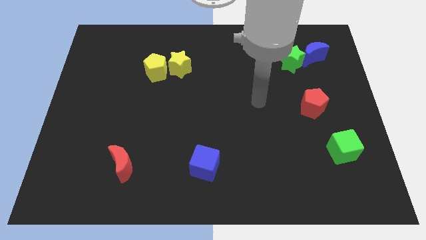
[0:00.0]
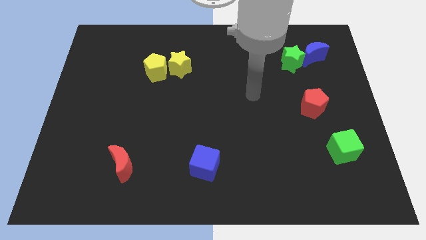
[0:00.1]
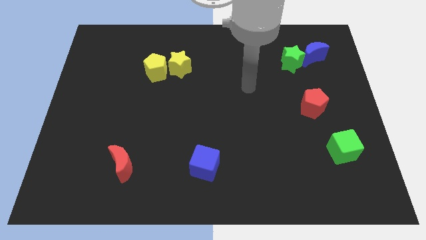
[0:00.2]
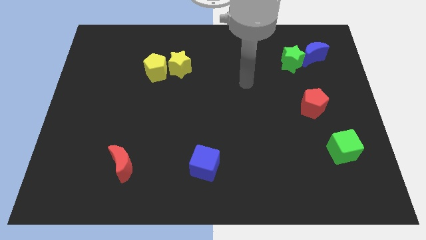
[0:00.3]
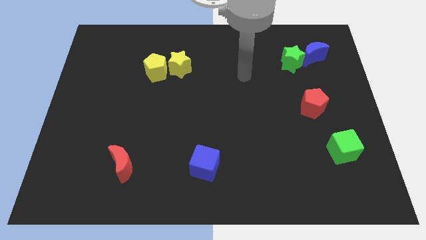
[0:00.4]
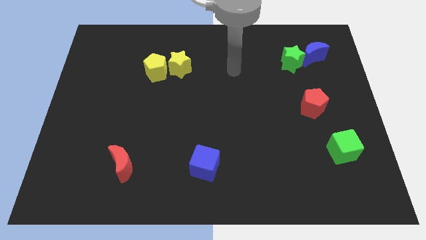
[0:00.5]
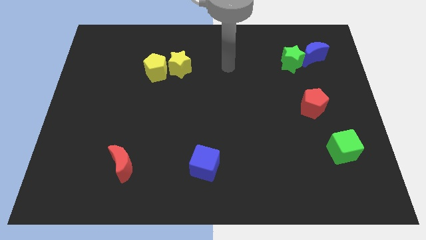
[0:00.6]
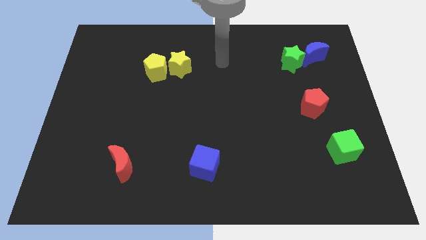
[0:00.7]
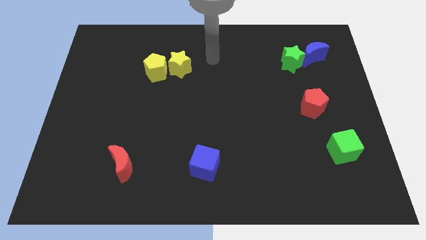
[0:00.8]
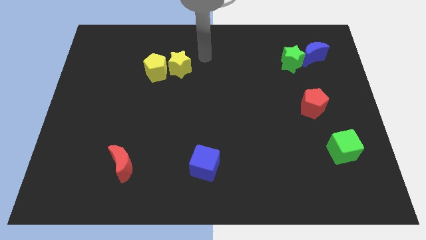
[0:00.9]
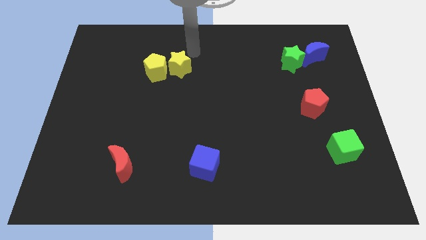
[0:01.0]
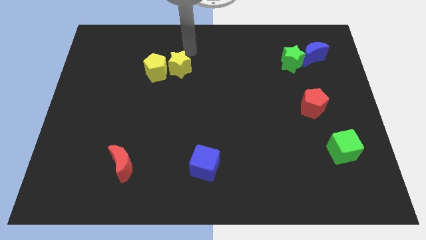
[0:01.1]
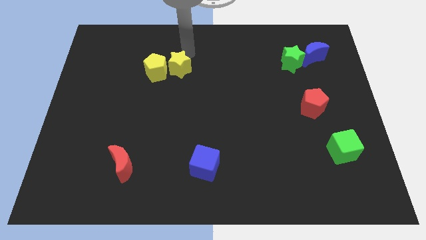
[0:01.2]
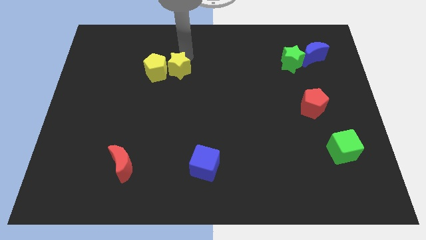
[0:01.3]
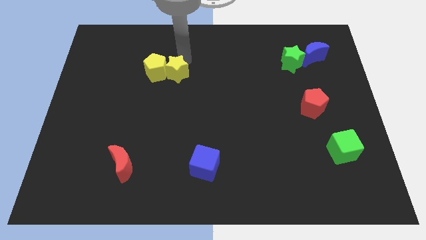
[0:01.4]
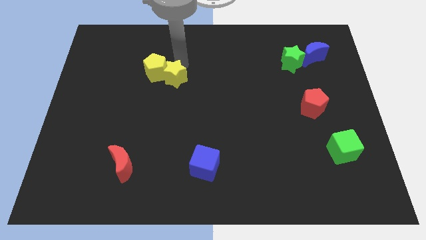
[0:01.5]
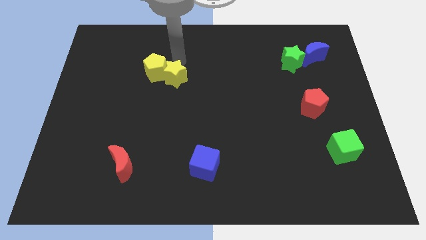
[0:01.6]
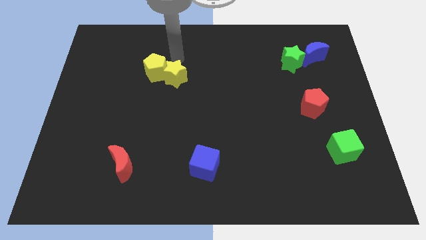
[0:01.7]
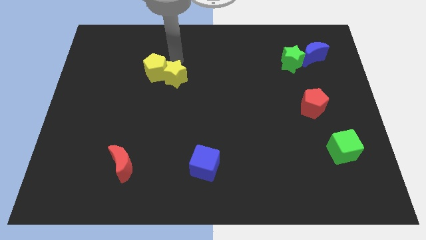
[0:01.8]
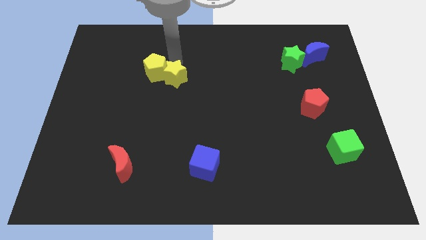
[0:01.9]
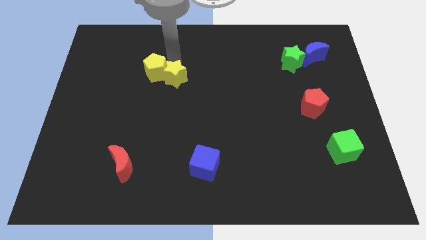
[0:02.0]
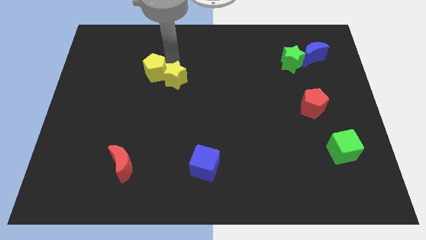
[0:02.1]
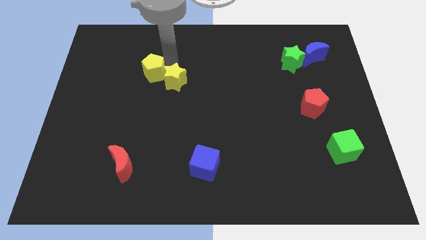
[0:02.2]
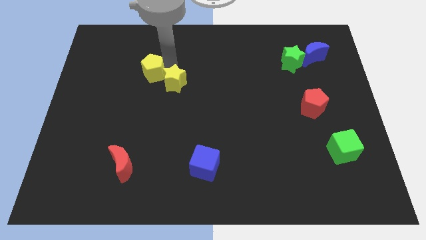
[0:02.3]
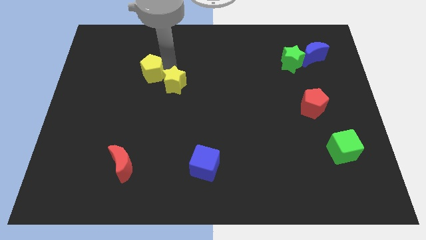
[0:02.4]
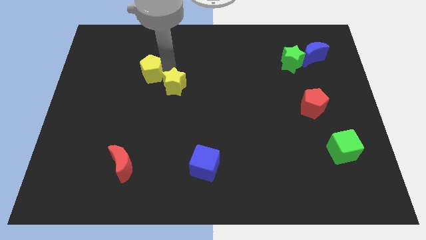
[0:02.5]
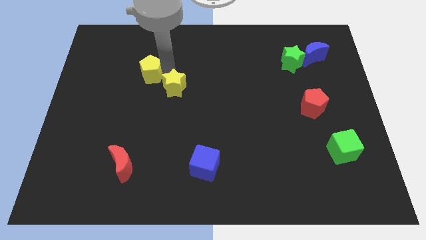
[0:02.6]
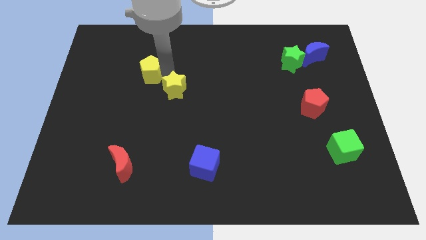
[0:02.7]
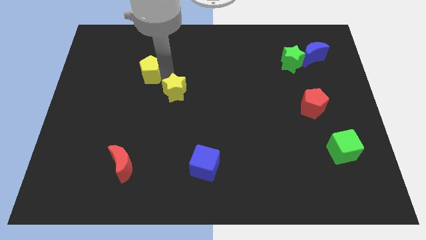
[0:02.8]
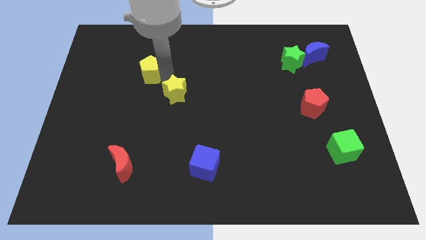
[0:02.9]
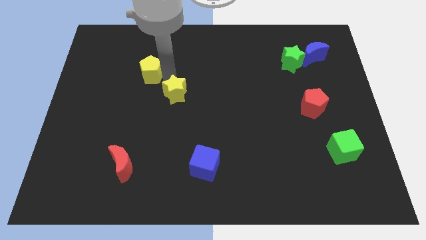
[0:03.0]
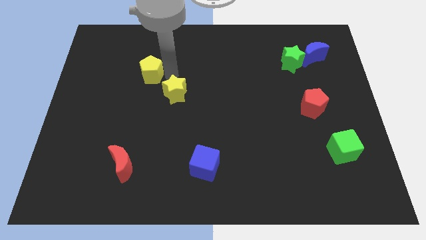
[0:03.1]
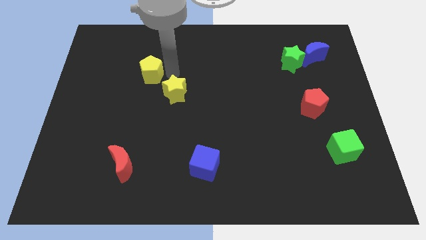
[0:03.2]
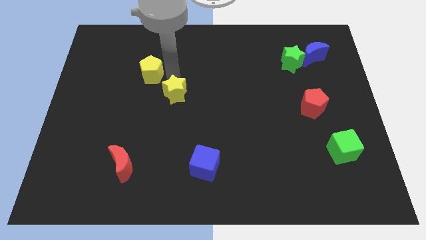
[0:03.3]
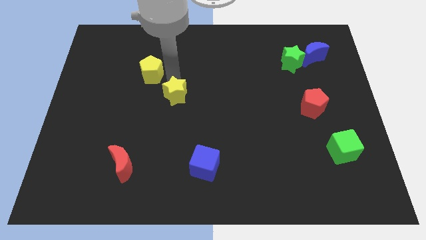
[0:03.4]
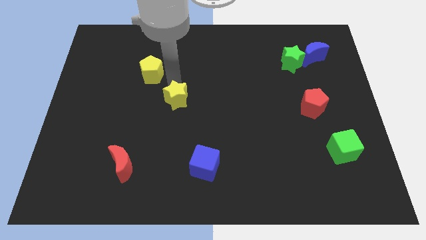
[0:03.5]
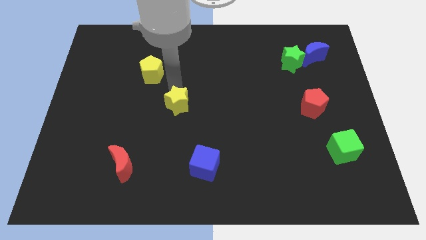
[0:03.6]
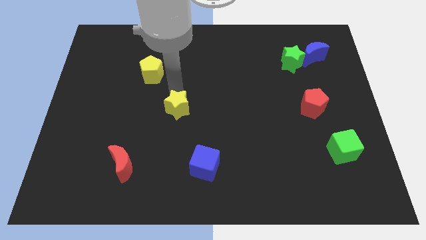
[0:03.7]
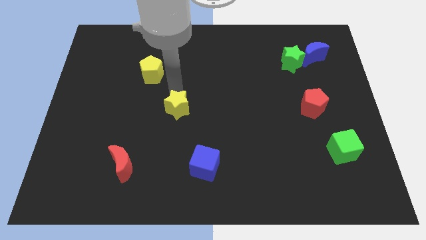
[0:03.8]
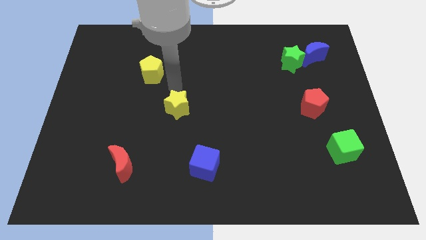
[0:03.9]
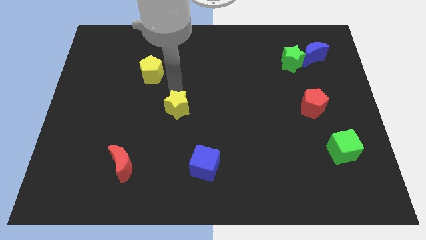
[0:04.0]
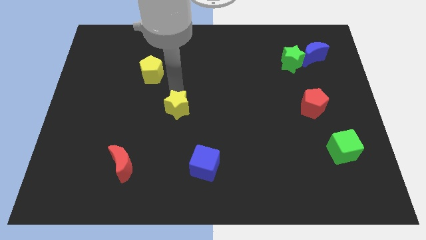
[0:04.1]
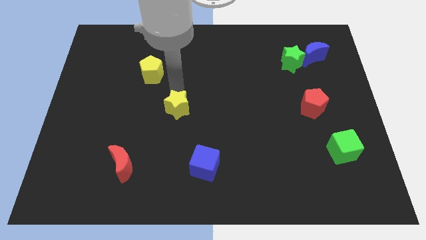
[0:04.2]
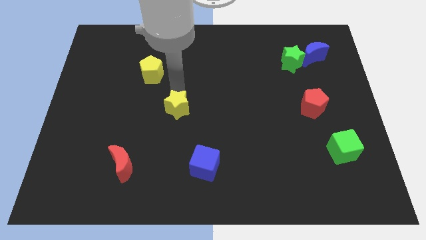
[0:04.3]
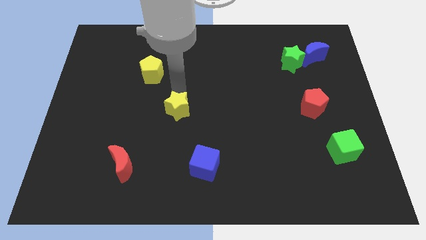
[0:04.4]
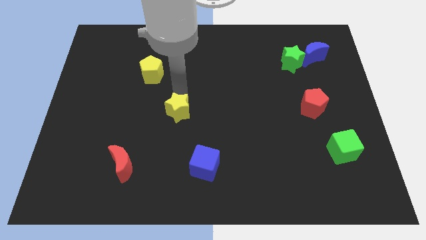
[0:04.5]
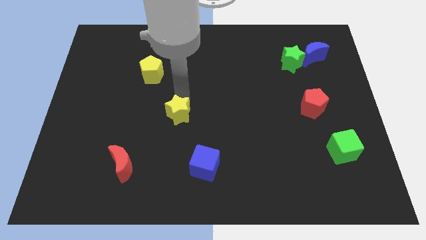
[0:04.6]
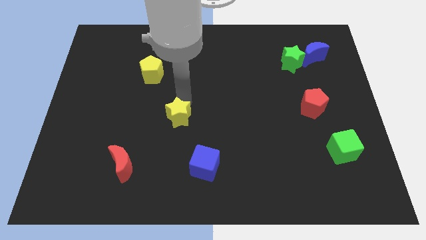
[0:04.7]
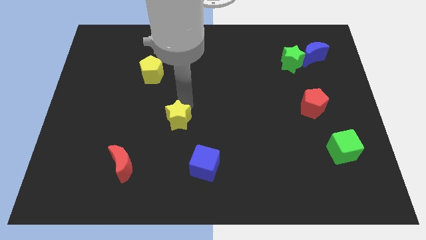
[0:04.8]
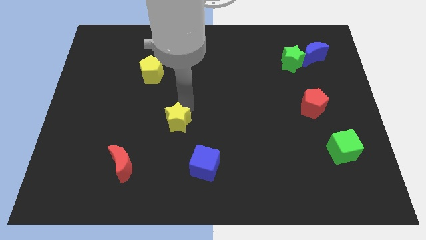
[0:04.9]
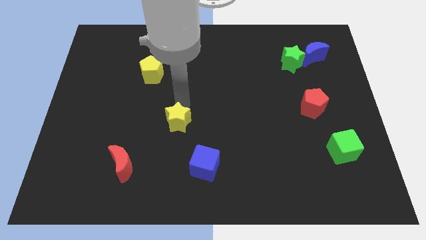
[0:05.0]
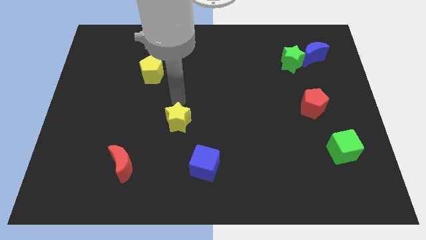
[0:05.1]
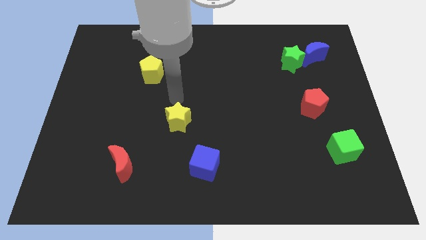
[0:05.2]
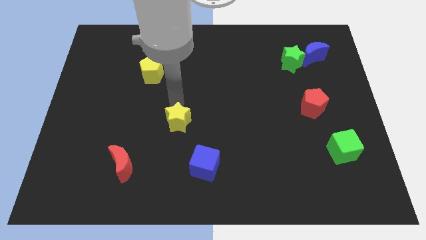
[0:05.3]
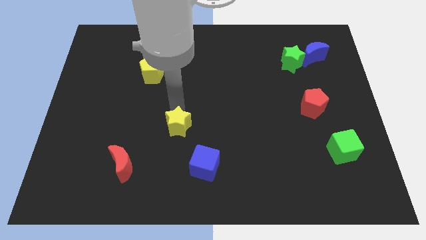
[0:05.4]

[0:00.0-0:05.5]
slide the yellow star to the top left of the blue cube

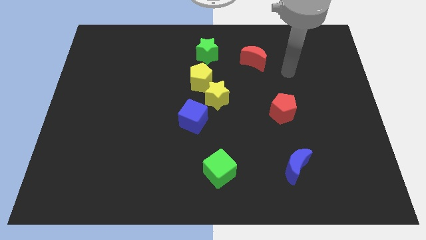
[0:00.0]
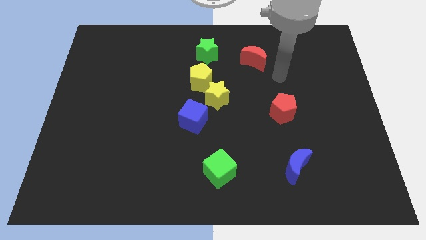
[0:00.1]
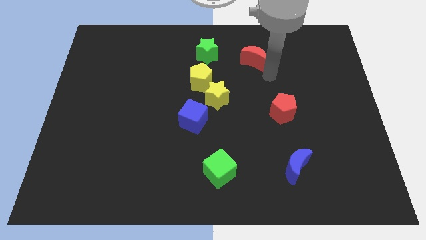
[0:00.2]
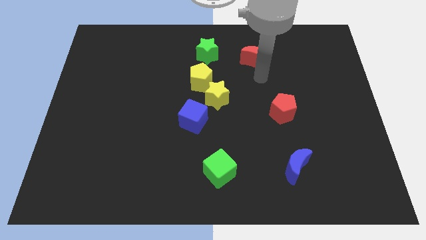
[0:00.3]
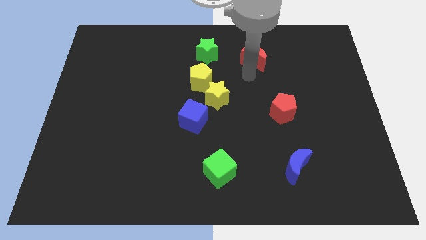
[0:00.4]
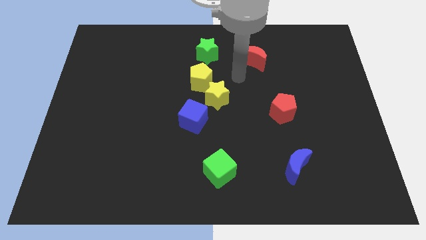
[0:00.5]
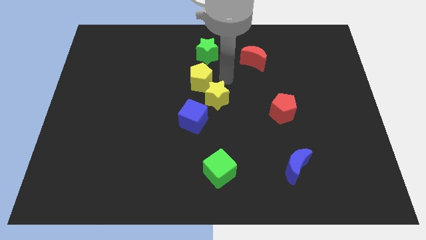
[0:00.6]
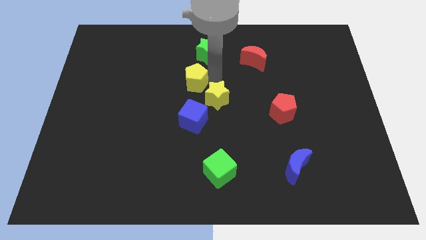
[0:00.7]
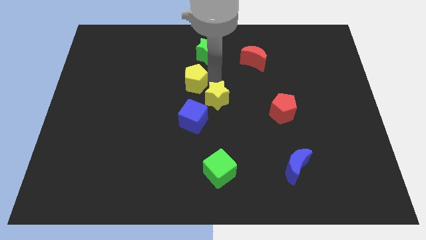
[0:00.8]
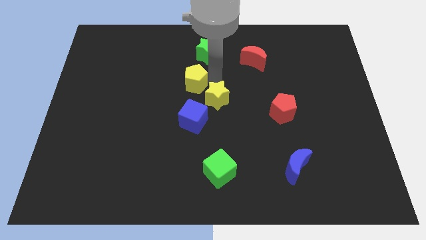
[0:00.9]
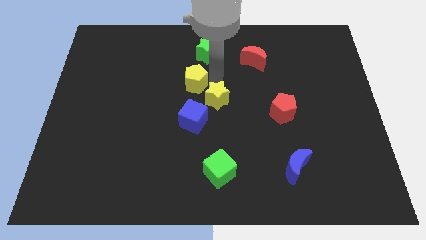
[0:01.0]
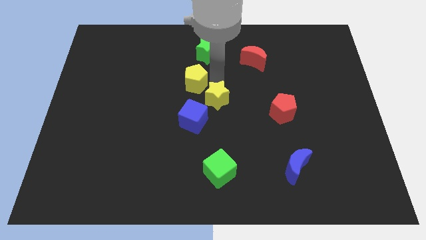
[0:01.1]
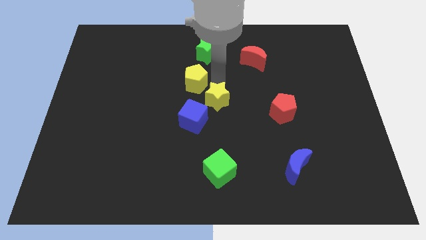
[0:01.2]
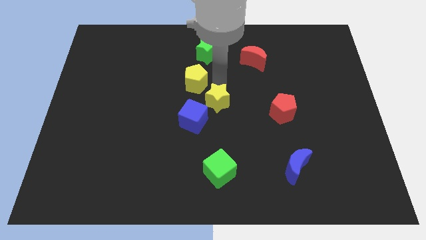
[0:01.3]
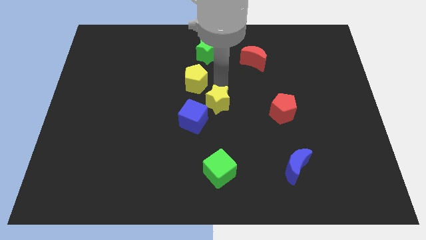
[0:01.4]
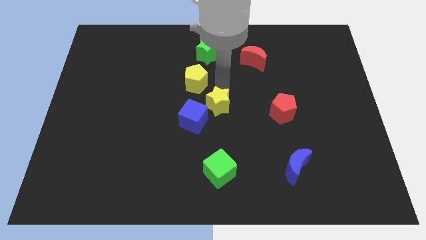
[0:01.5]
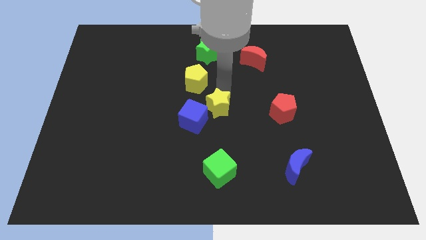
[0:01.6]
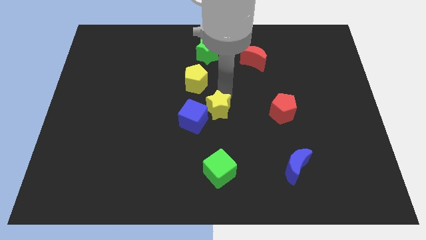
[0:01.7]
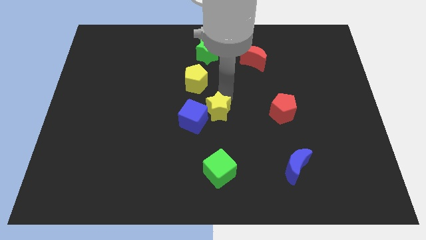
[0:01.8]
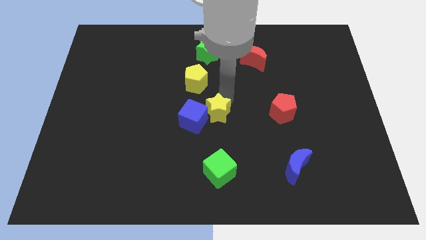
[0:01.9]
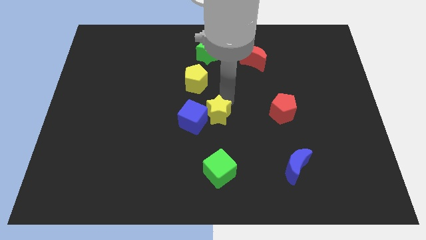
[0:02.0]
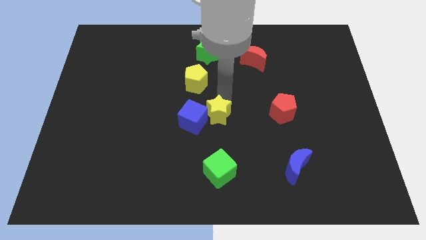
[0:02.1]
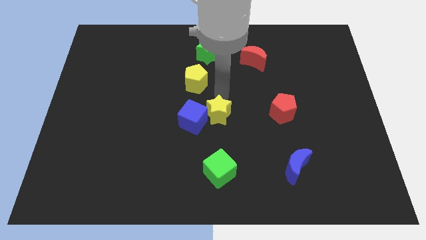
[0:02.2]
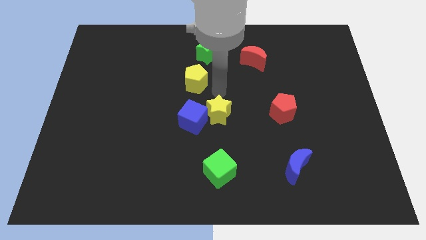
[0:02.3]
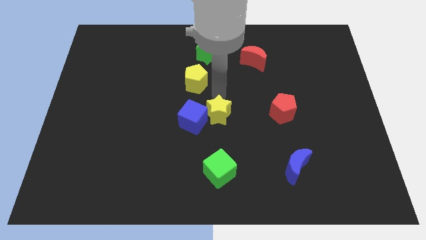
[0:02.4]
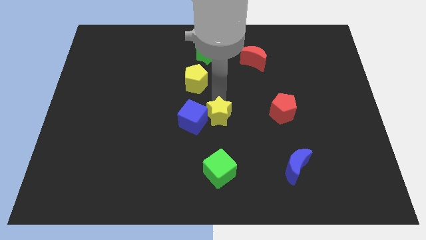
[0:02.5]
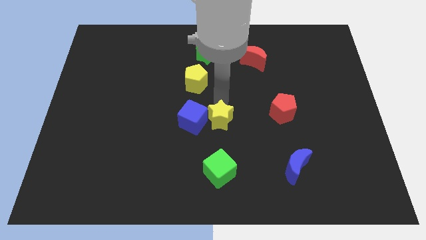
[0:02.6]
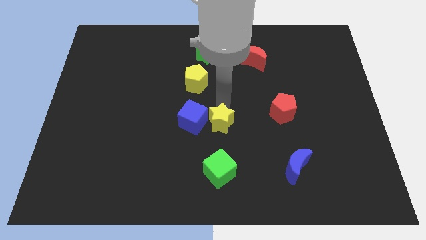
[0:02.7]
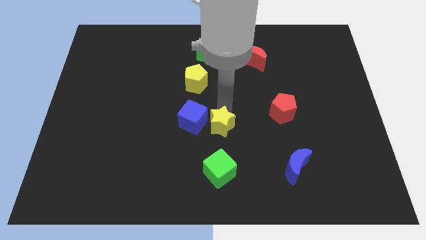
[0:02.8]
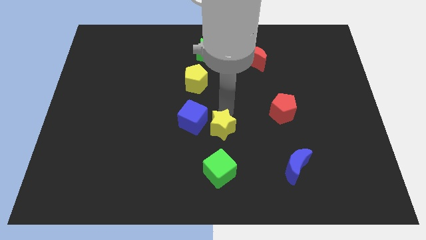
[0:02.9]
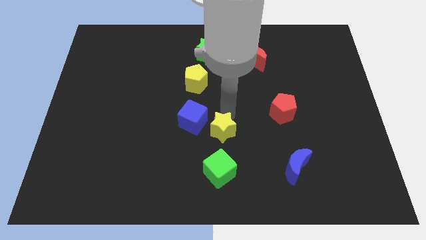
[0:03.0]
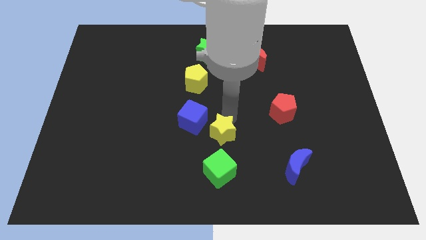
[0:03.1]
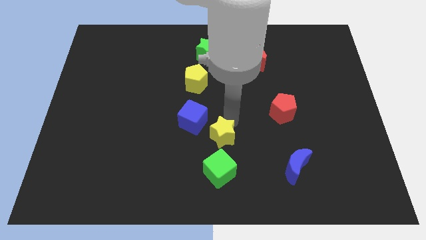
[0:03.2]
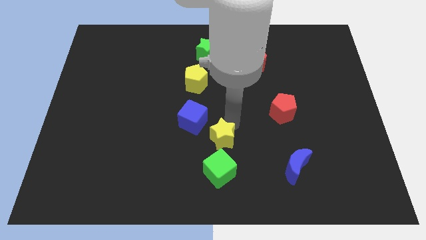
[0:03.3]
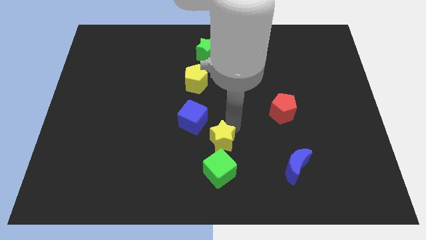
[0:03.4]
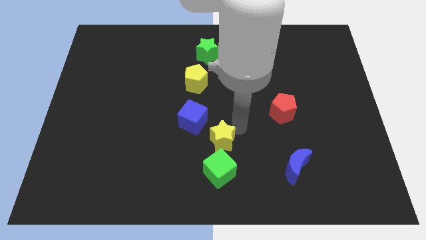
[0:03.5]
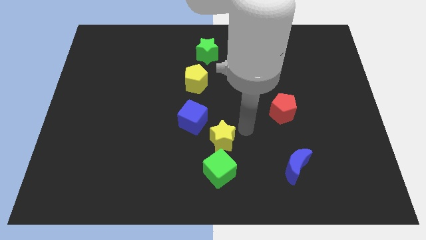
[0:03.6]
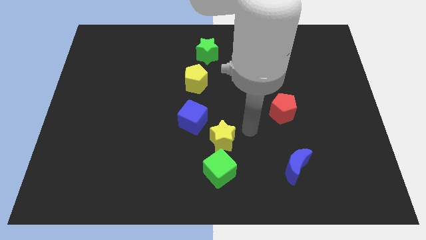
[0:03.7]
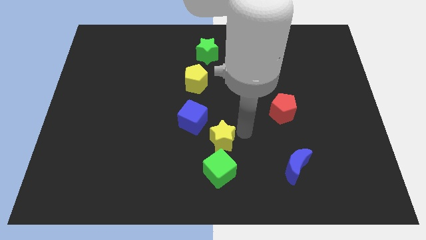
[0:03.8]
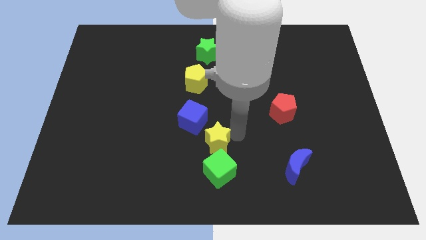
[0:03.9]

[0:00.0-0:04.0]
push the yellow star to the top left of the green cube
